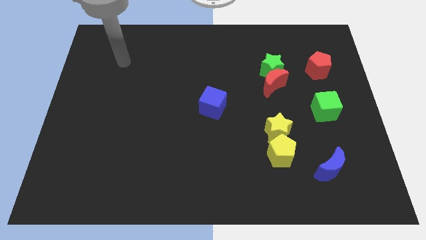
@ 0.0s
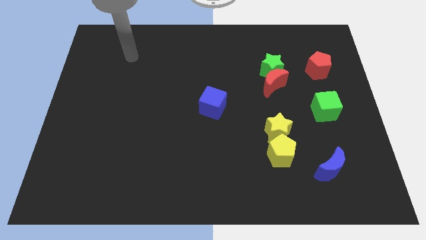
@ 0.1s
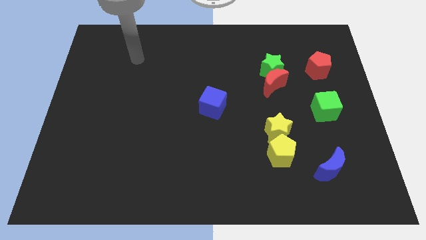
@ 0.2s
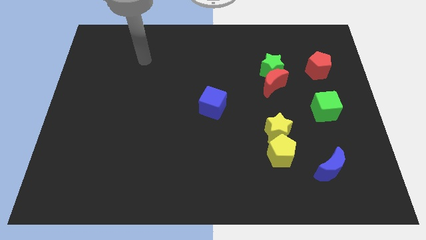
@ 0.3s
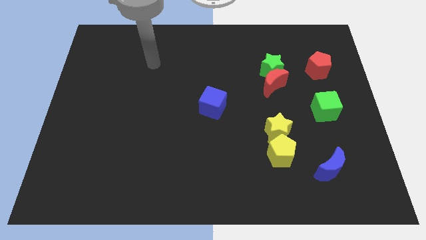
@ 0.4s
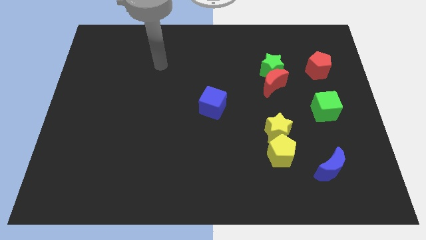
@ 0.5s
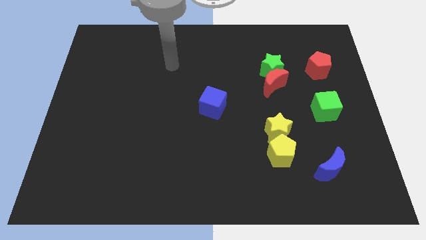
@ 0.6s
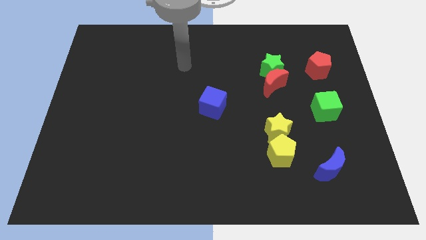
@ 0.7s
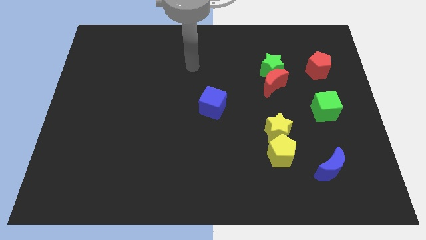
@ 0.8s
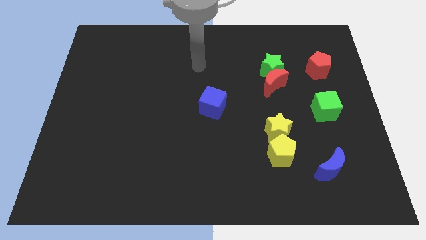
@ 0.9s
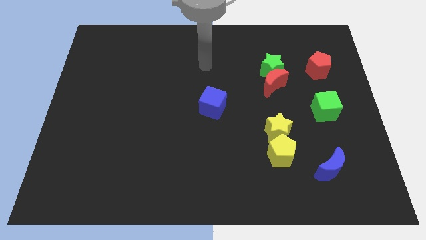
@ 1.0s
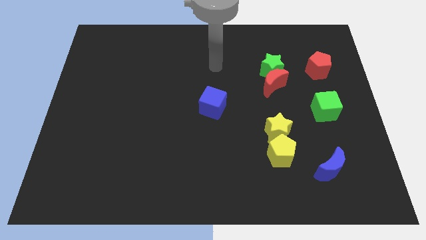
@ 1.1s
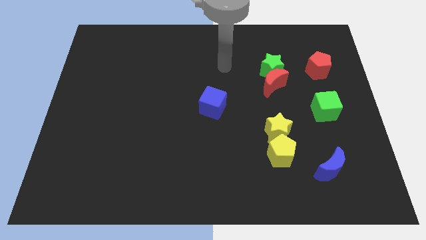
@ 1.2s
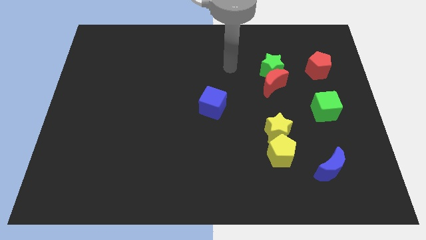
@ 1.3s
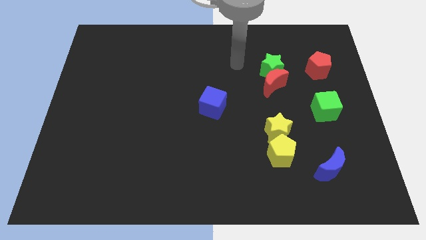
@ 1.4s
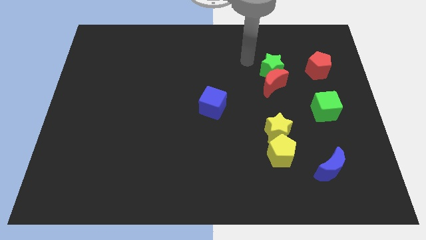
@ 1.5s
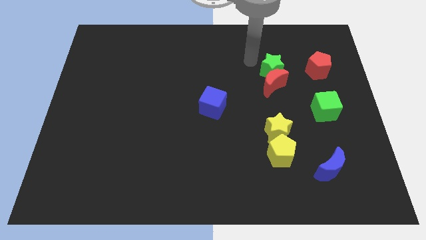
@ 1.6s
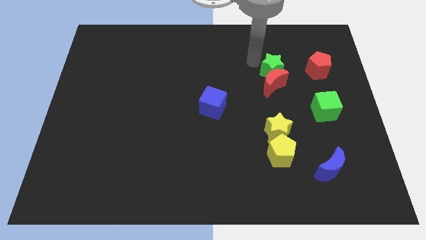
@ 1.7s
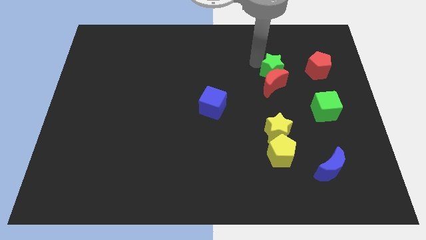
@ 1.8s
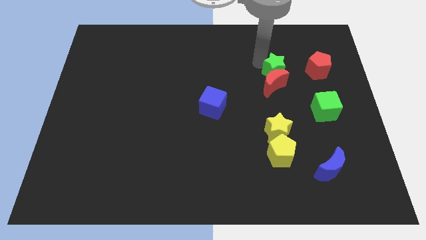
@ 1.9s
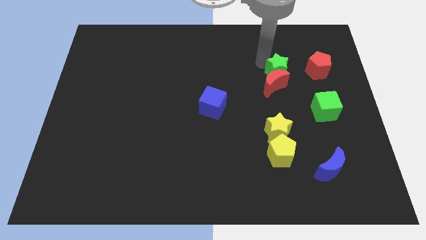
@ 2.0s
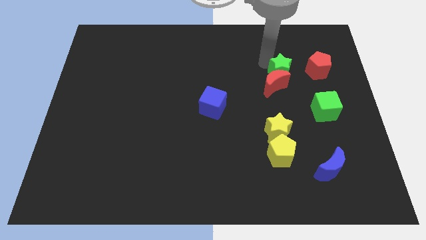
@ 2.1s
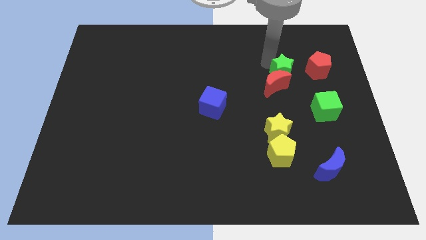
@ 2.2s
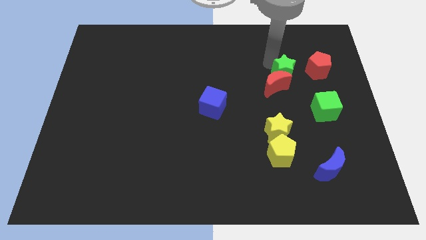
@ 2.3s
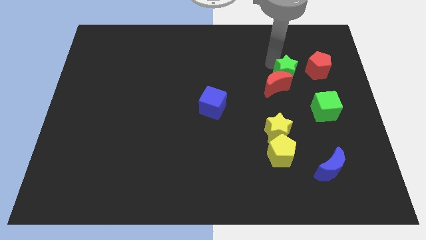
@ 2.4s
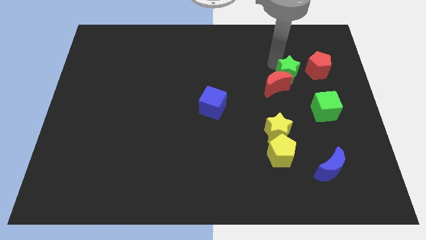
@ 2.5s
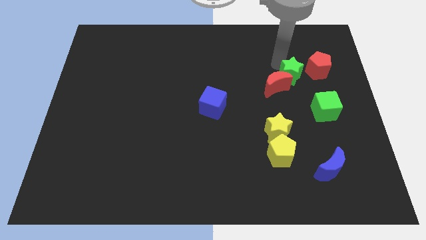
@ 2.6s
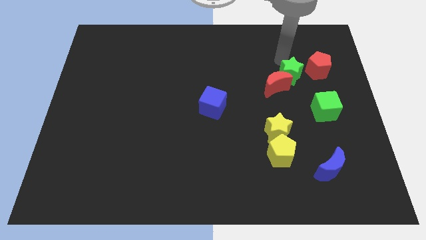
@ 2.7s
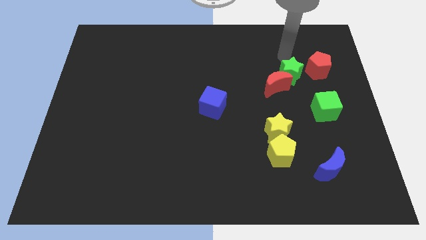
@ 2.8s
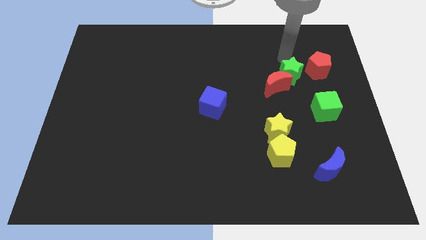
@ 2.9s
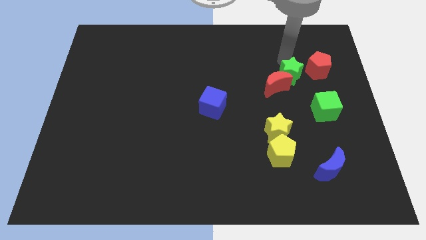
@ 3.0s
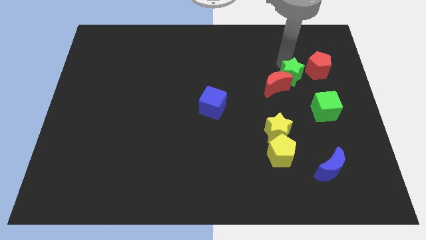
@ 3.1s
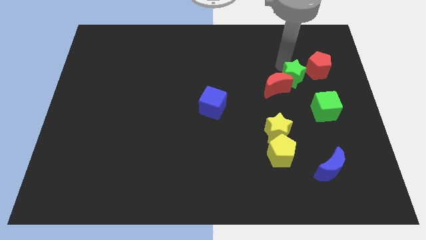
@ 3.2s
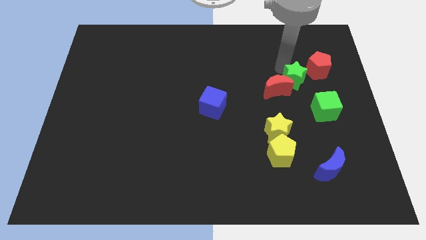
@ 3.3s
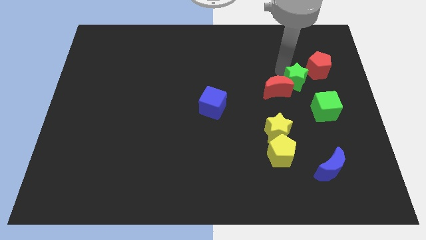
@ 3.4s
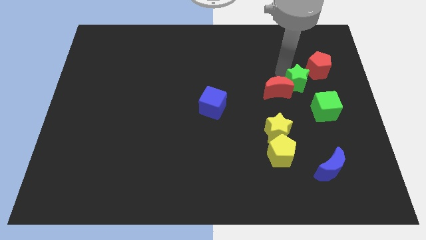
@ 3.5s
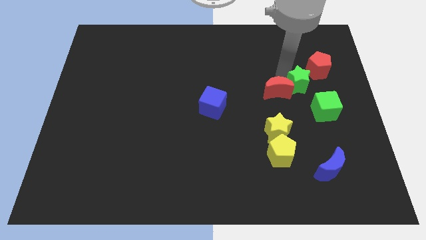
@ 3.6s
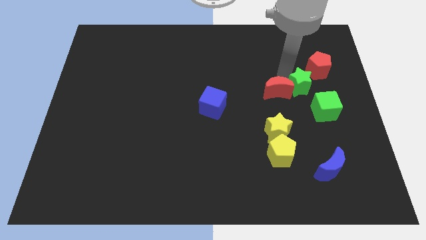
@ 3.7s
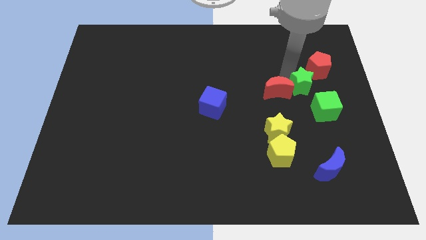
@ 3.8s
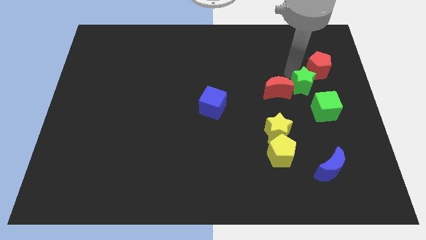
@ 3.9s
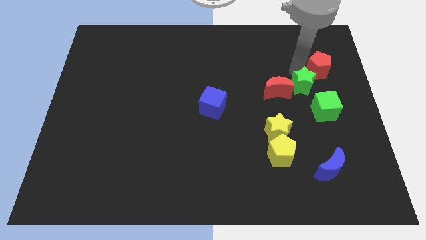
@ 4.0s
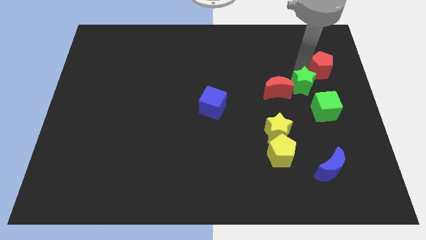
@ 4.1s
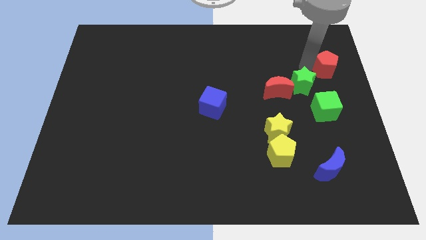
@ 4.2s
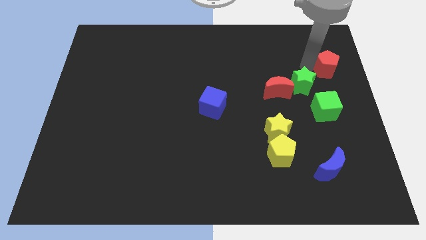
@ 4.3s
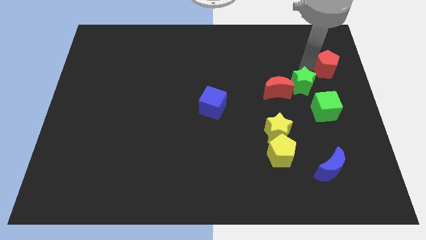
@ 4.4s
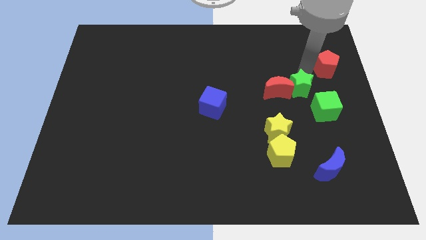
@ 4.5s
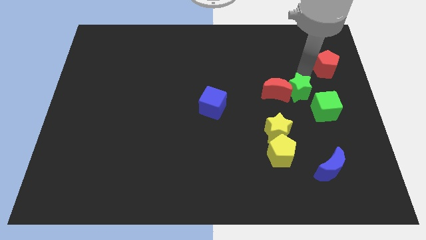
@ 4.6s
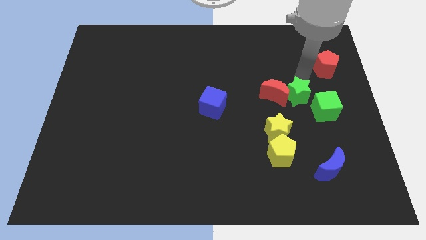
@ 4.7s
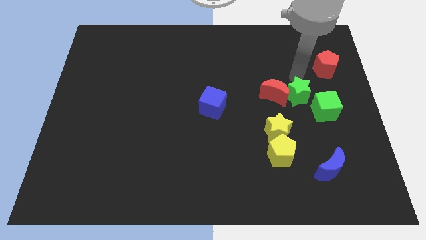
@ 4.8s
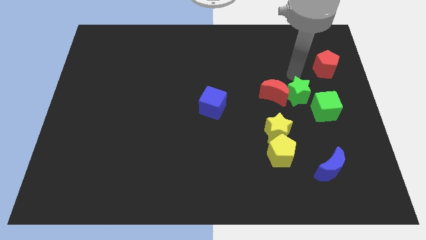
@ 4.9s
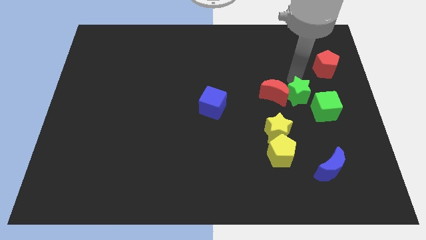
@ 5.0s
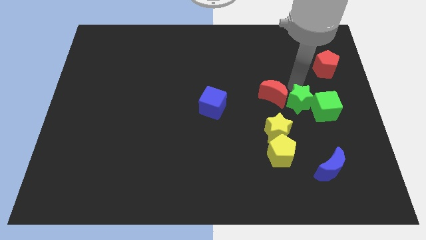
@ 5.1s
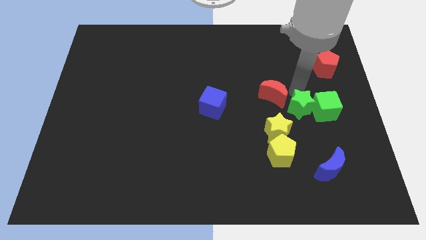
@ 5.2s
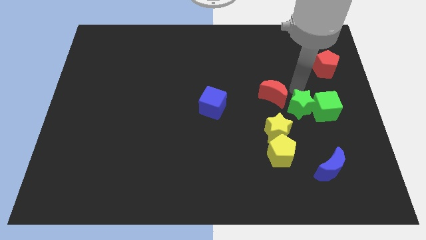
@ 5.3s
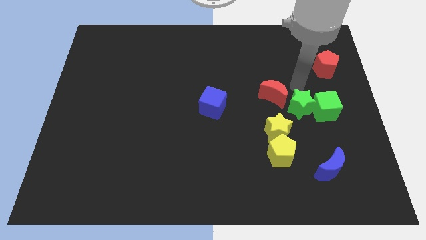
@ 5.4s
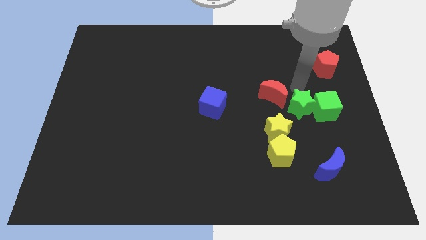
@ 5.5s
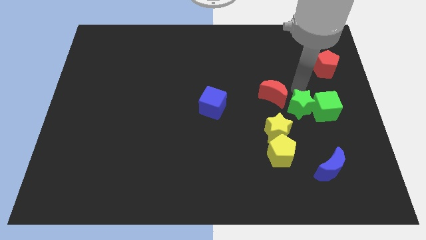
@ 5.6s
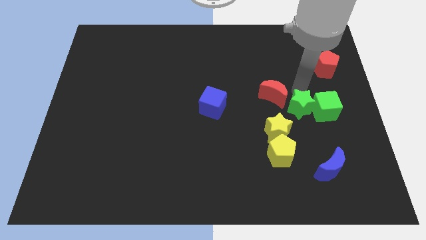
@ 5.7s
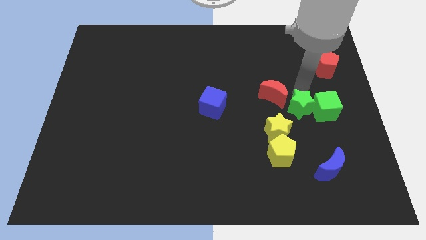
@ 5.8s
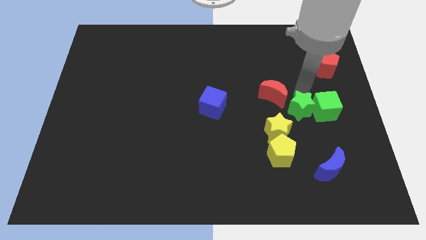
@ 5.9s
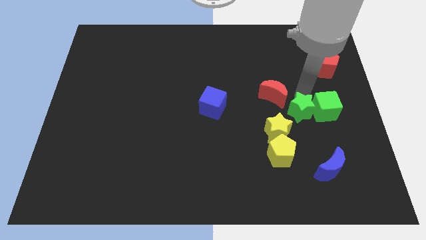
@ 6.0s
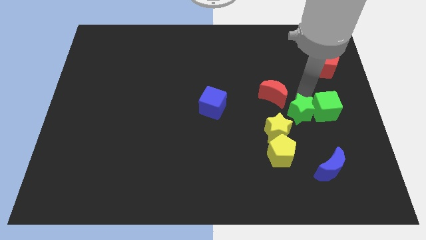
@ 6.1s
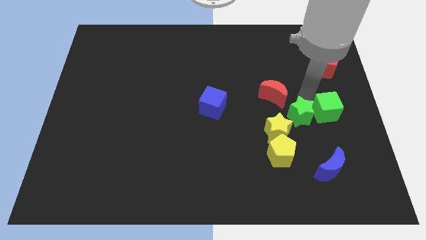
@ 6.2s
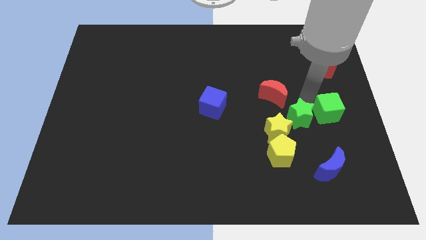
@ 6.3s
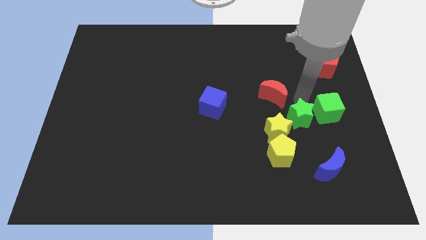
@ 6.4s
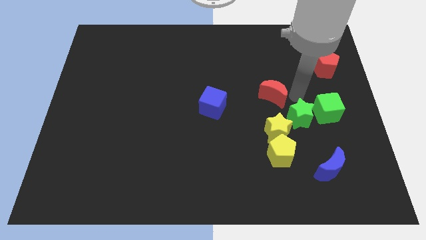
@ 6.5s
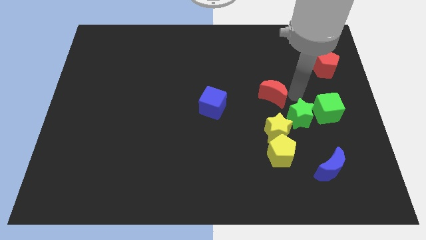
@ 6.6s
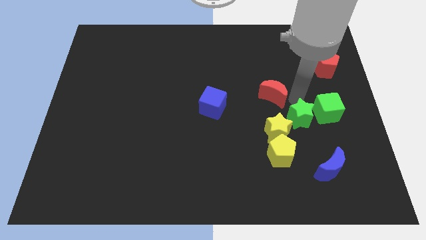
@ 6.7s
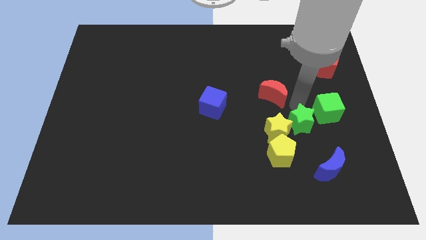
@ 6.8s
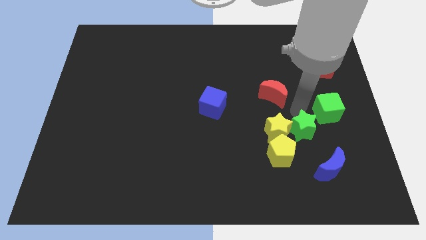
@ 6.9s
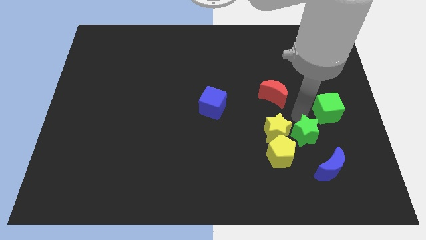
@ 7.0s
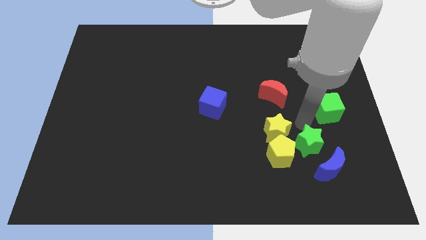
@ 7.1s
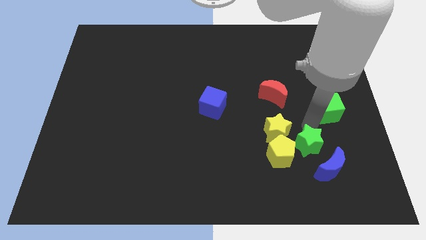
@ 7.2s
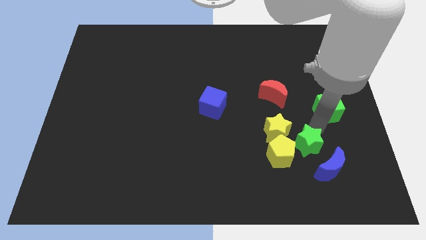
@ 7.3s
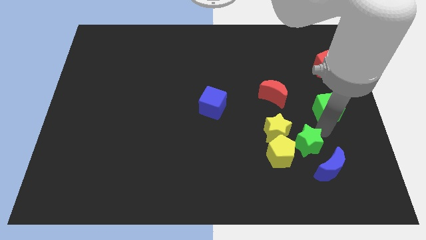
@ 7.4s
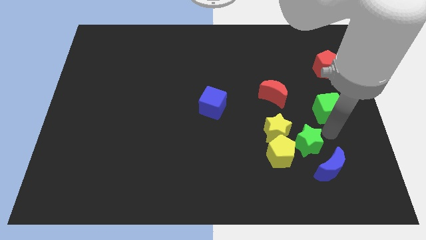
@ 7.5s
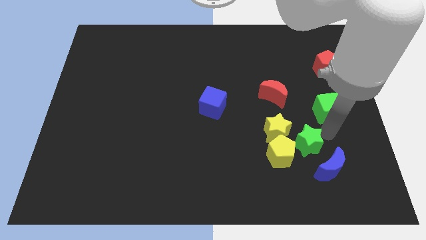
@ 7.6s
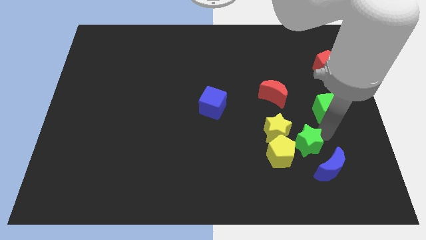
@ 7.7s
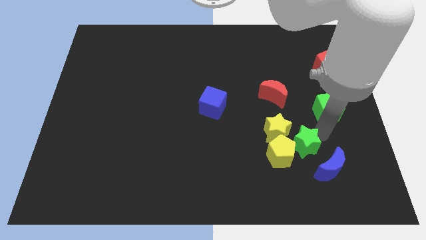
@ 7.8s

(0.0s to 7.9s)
push the green star towards the yellow pentagon
